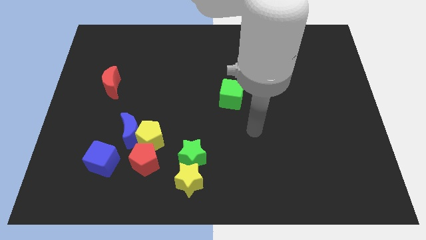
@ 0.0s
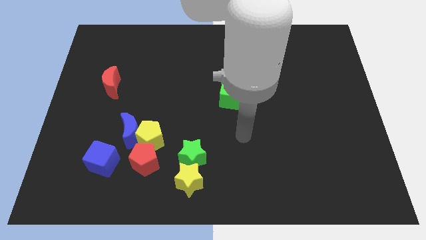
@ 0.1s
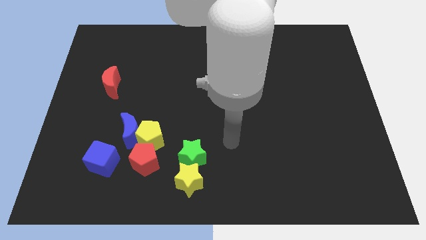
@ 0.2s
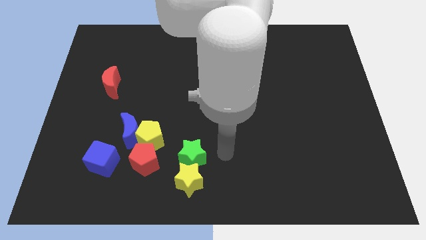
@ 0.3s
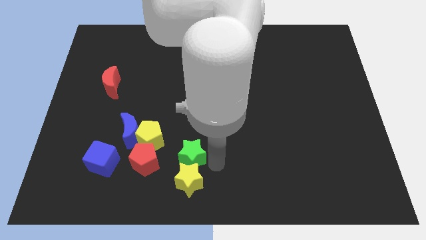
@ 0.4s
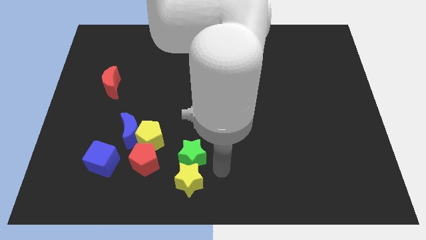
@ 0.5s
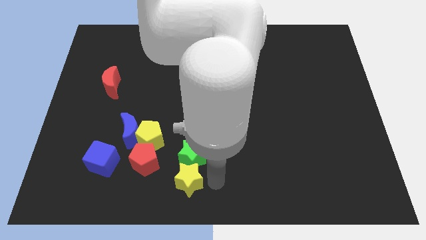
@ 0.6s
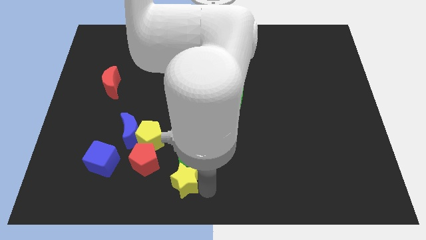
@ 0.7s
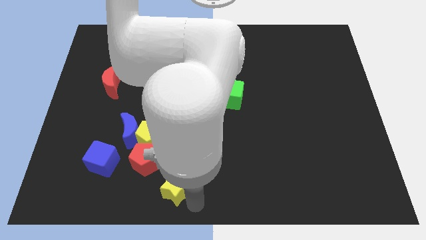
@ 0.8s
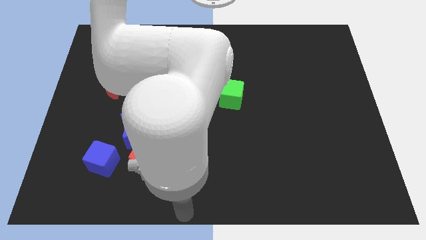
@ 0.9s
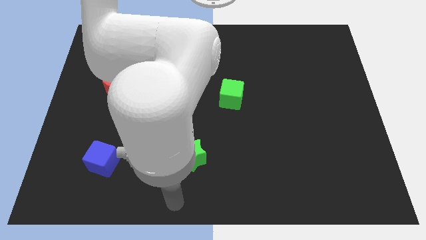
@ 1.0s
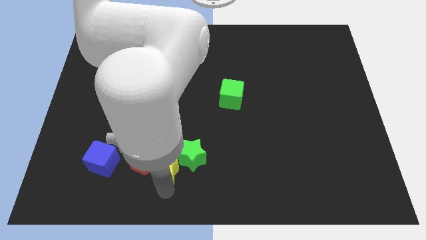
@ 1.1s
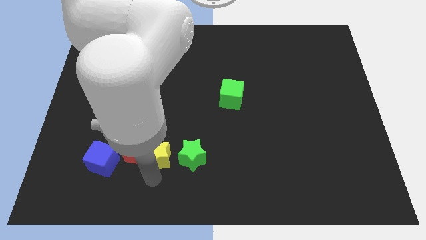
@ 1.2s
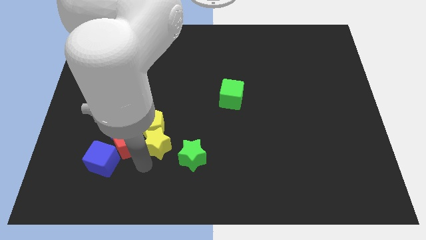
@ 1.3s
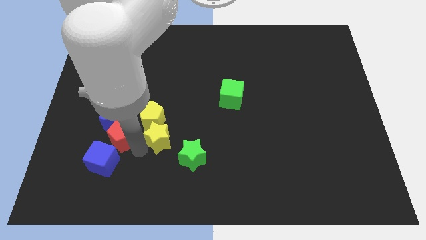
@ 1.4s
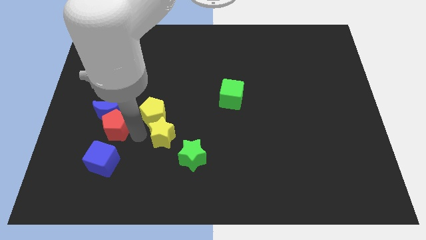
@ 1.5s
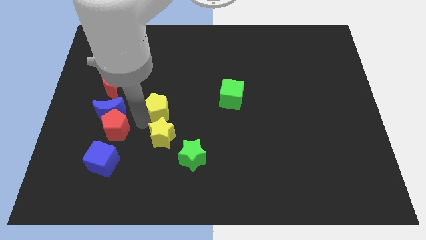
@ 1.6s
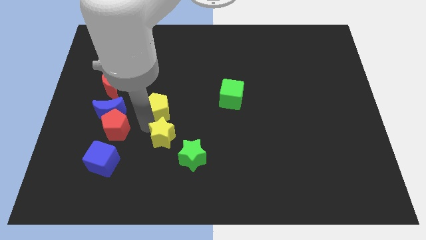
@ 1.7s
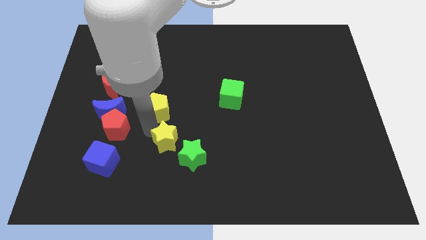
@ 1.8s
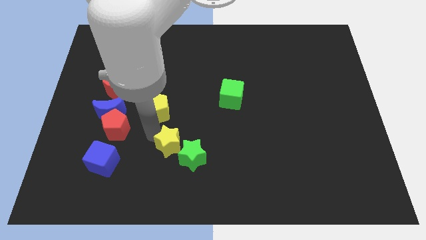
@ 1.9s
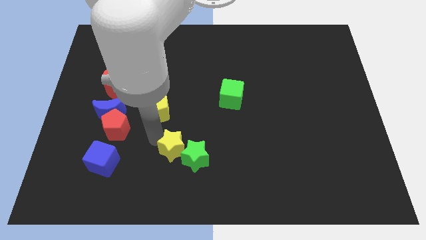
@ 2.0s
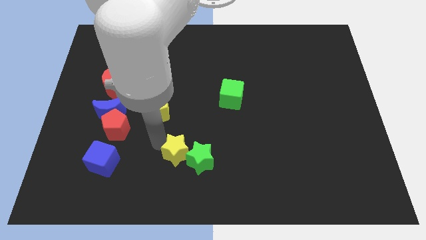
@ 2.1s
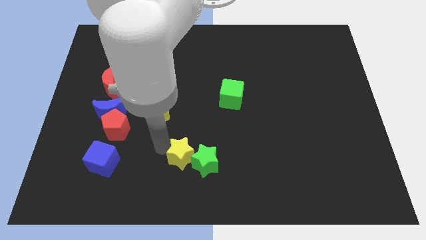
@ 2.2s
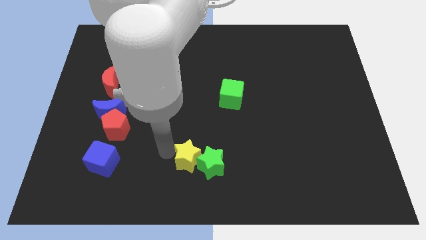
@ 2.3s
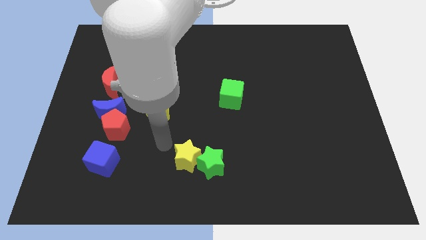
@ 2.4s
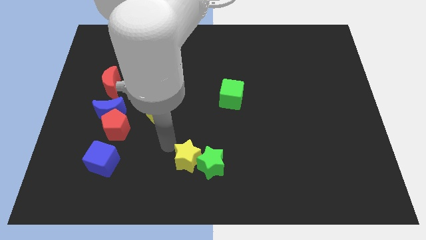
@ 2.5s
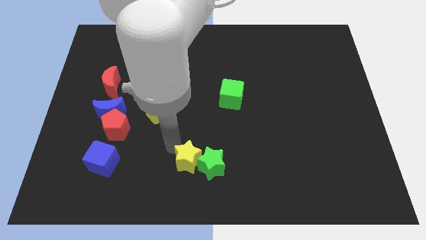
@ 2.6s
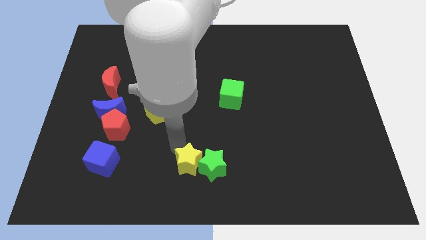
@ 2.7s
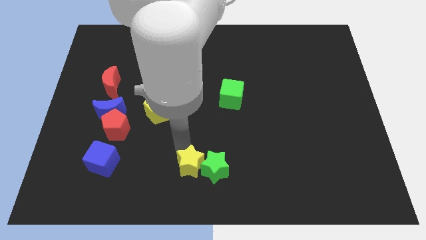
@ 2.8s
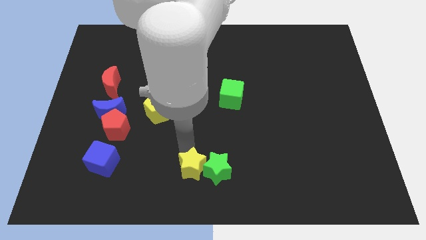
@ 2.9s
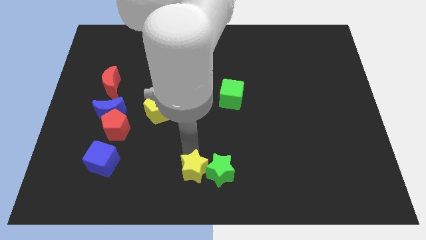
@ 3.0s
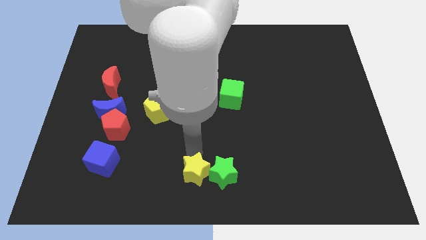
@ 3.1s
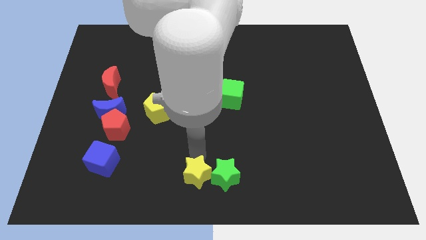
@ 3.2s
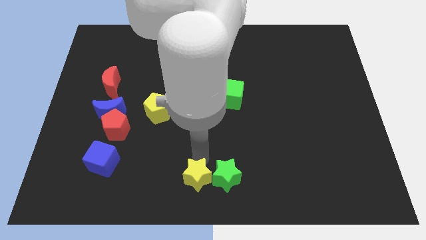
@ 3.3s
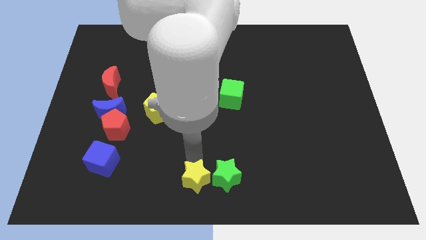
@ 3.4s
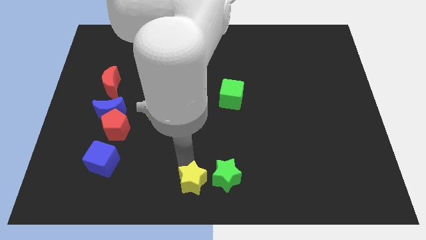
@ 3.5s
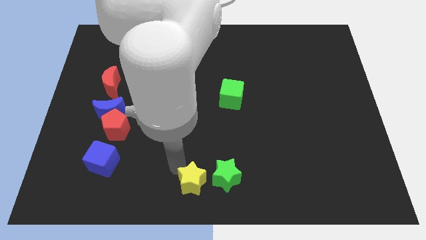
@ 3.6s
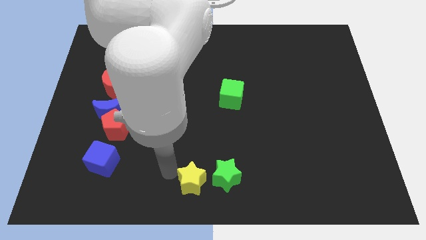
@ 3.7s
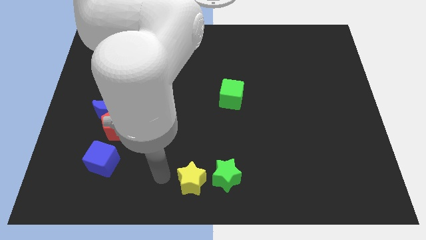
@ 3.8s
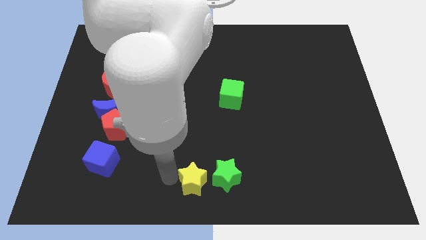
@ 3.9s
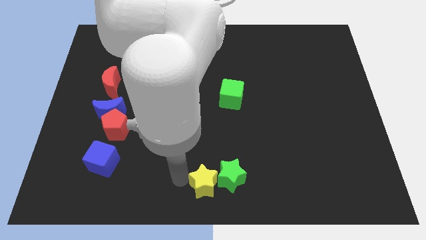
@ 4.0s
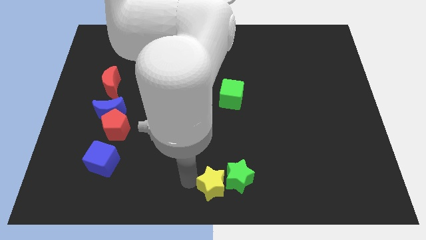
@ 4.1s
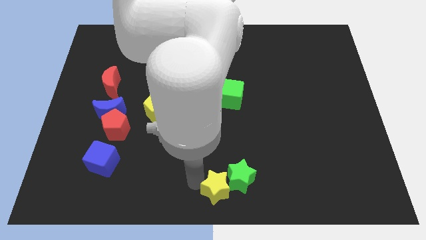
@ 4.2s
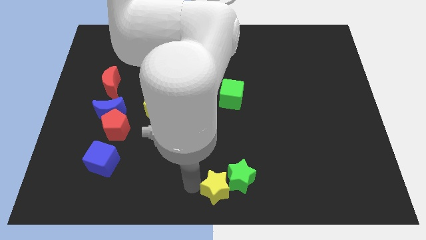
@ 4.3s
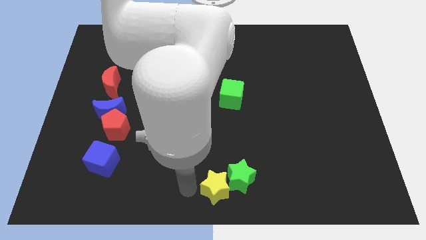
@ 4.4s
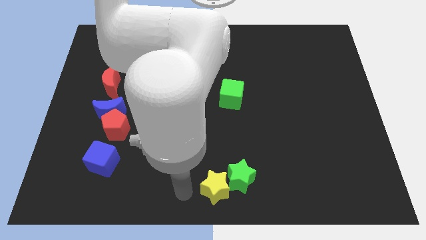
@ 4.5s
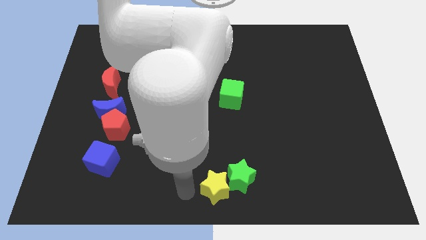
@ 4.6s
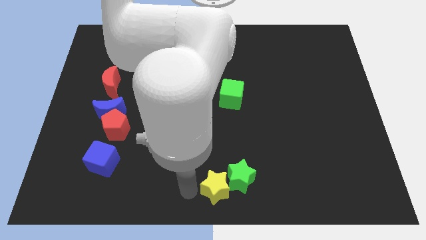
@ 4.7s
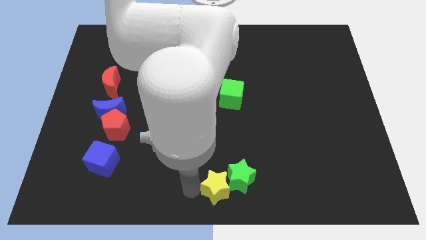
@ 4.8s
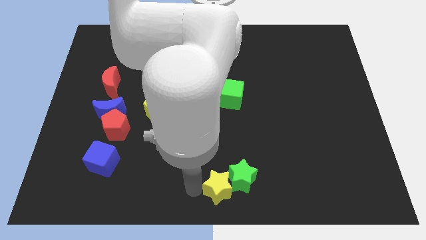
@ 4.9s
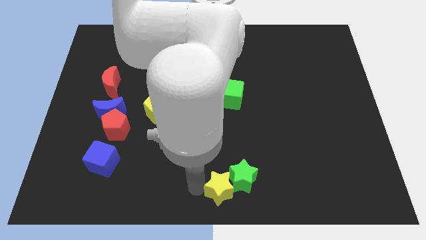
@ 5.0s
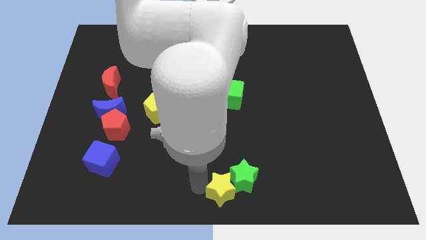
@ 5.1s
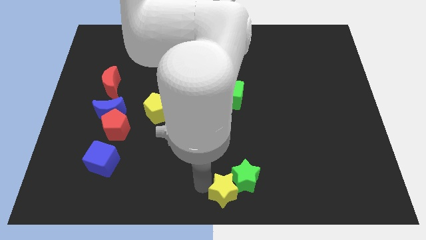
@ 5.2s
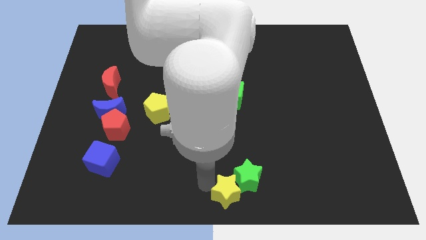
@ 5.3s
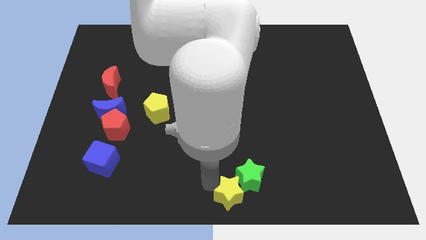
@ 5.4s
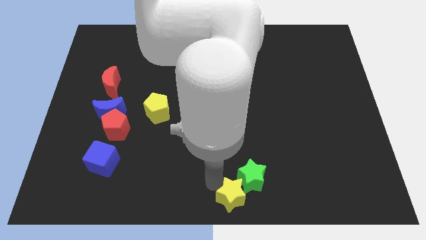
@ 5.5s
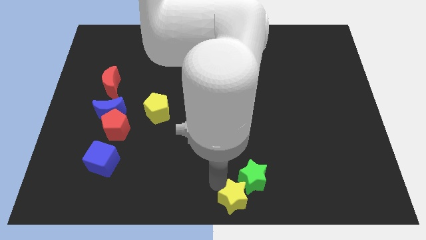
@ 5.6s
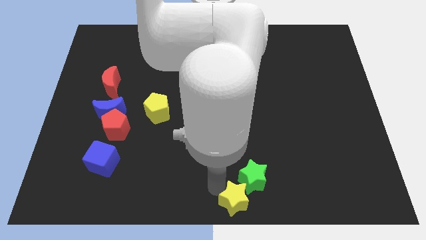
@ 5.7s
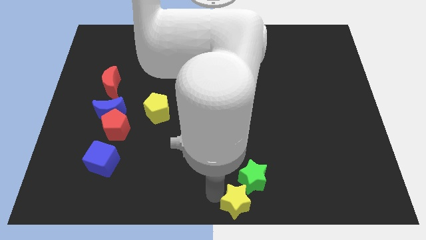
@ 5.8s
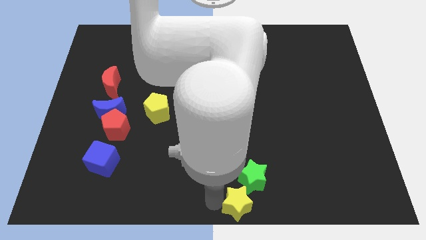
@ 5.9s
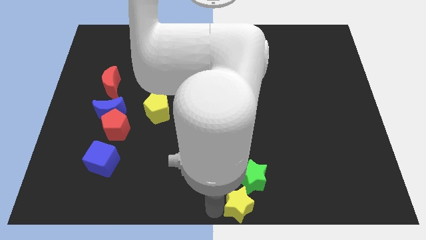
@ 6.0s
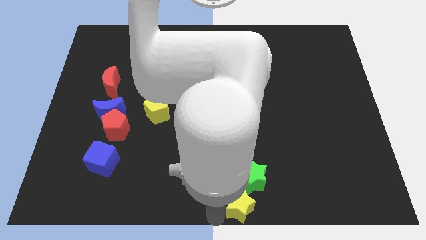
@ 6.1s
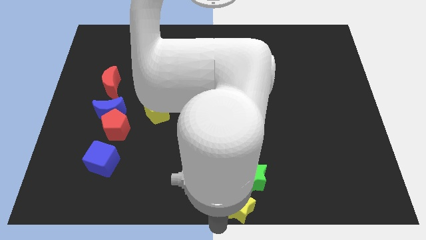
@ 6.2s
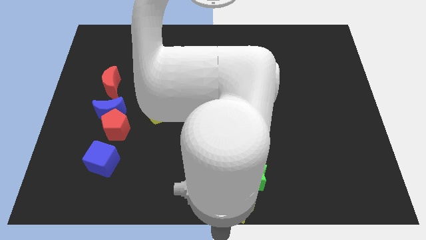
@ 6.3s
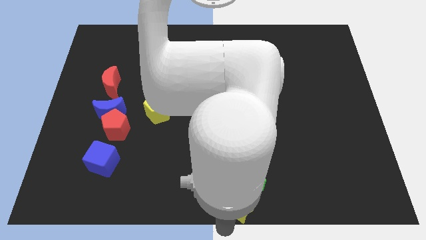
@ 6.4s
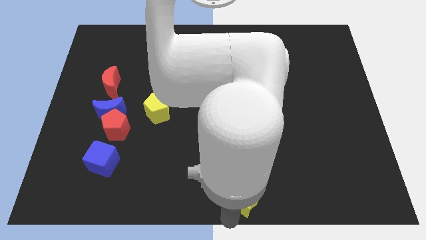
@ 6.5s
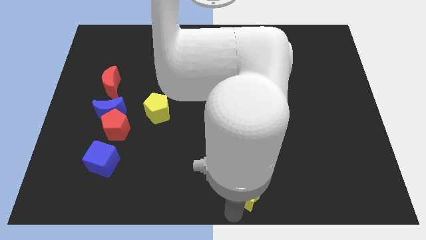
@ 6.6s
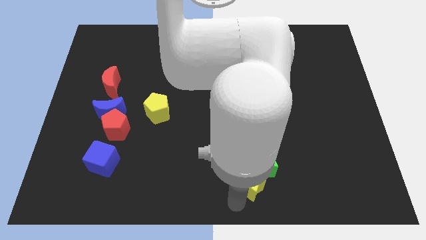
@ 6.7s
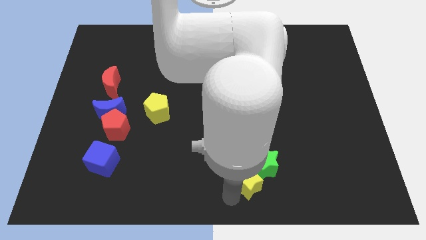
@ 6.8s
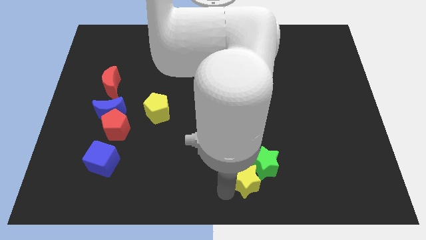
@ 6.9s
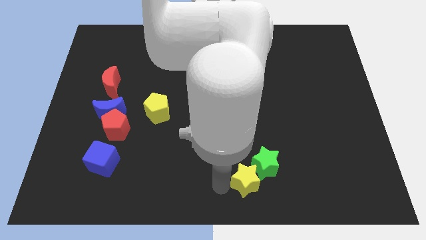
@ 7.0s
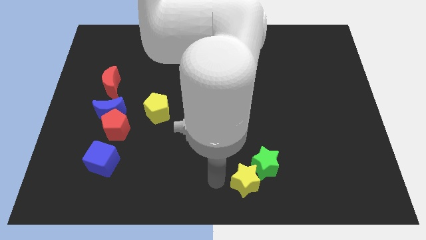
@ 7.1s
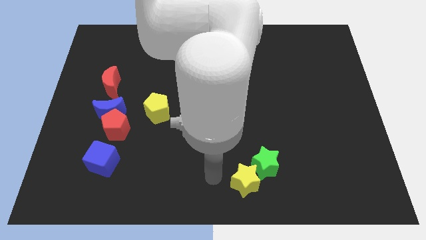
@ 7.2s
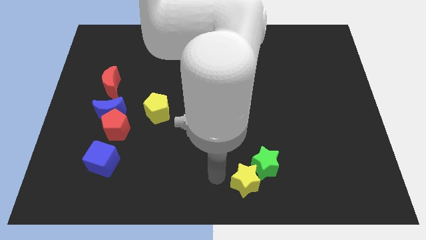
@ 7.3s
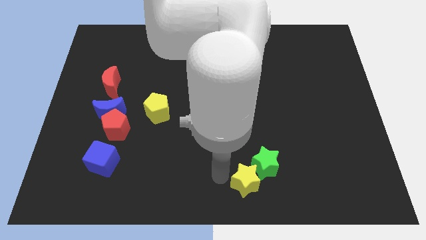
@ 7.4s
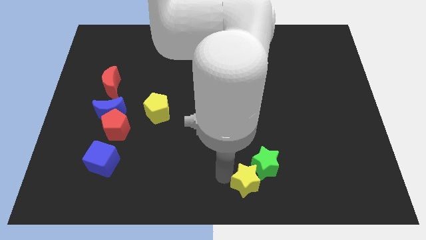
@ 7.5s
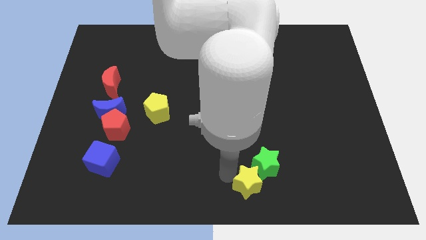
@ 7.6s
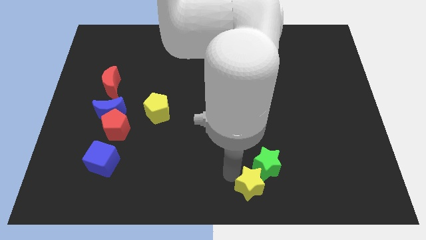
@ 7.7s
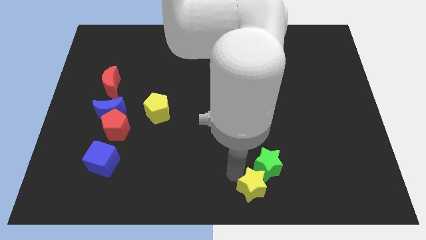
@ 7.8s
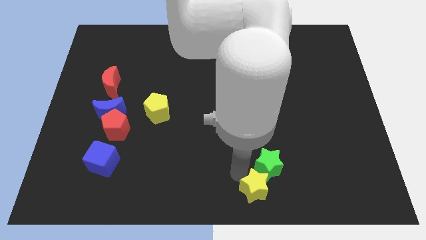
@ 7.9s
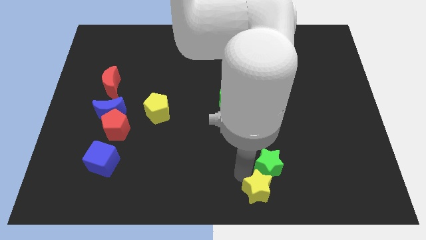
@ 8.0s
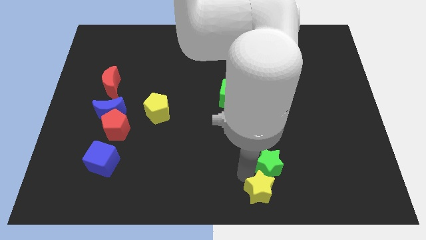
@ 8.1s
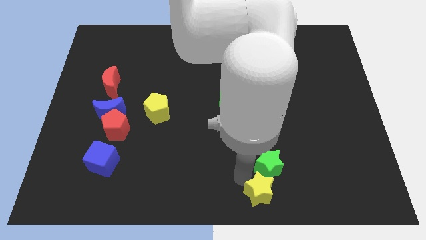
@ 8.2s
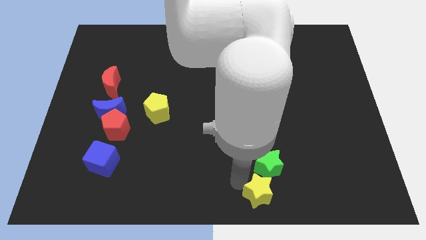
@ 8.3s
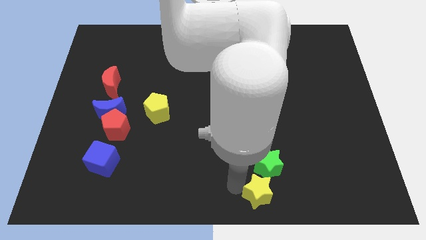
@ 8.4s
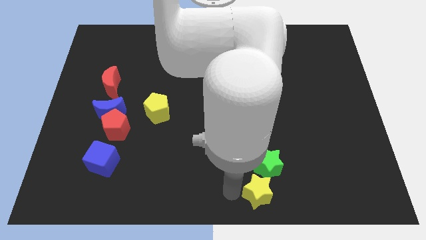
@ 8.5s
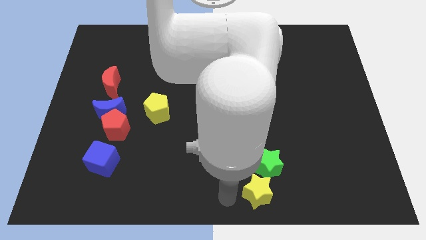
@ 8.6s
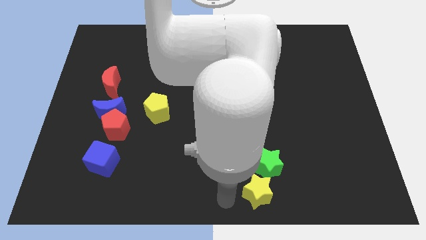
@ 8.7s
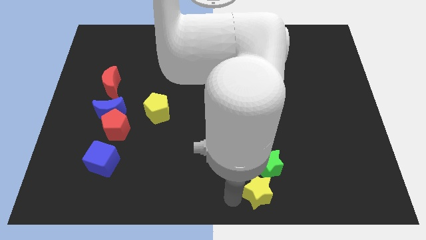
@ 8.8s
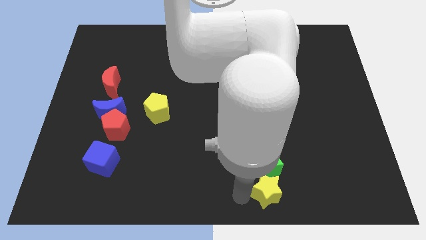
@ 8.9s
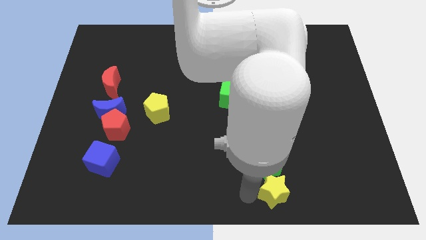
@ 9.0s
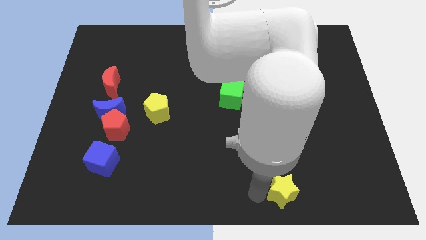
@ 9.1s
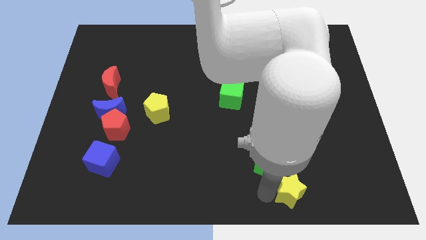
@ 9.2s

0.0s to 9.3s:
slide the yellow star right
